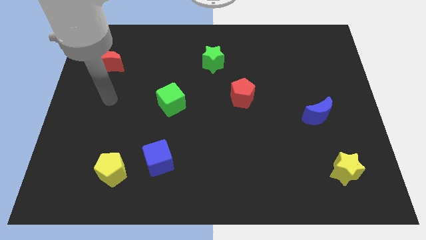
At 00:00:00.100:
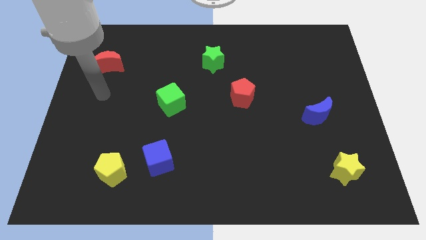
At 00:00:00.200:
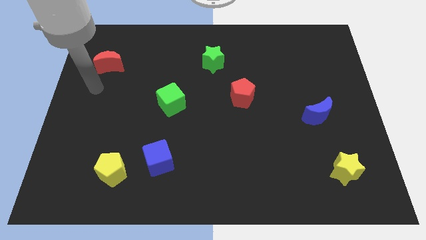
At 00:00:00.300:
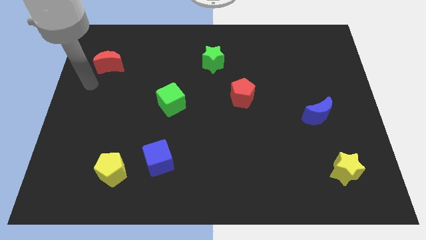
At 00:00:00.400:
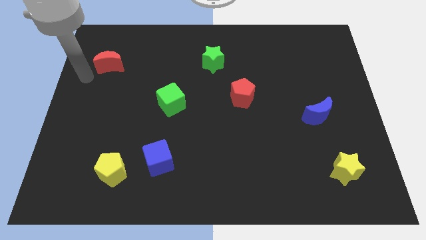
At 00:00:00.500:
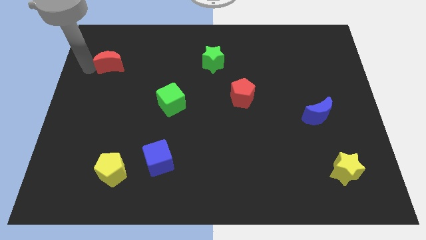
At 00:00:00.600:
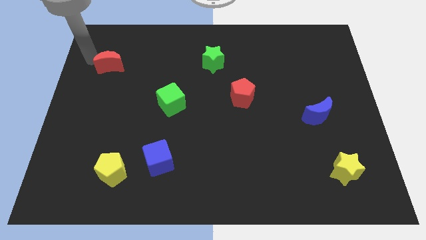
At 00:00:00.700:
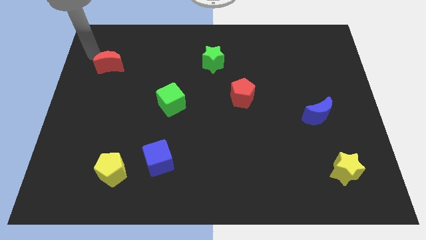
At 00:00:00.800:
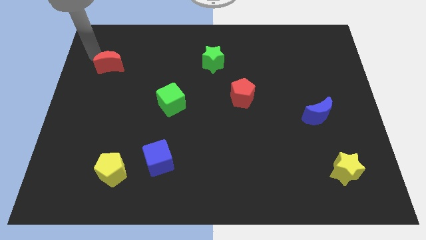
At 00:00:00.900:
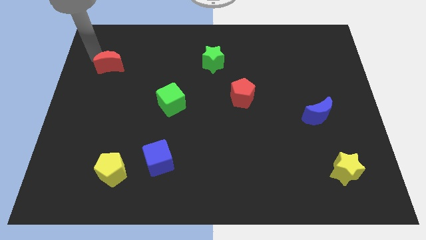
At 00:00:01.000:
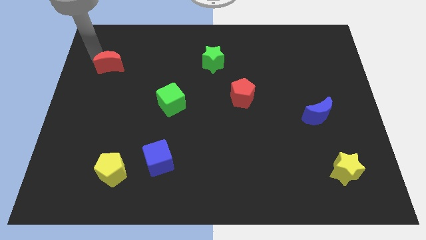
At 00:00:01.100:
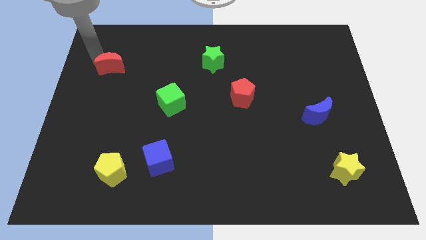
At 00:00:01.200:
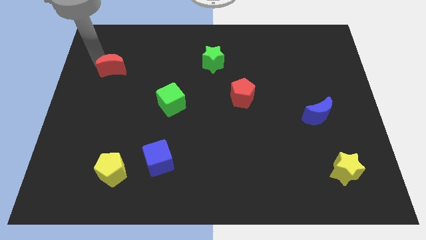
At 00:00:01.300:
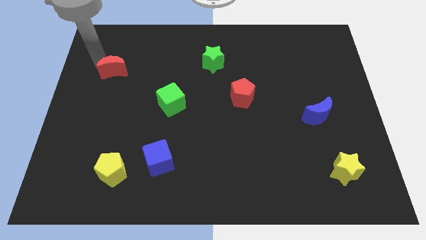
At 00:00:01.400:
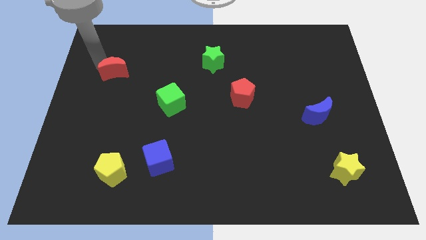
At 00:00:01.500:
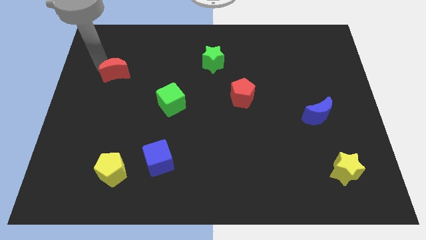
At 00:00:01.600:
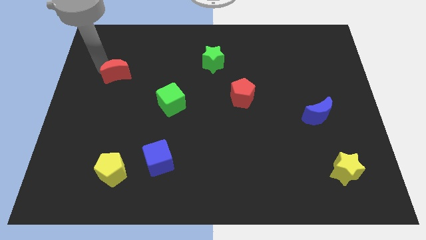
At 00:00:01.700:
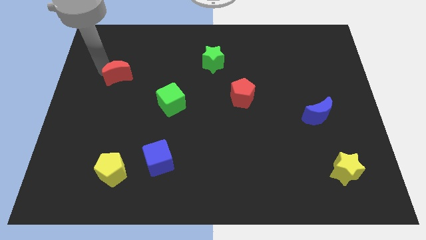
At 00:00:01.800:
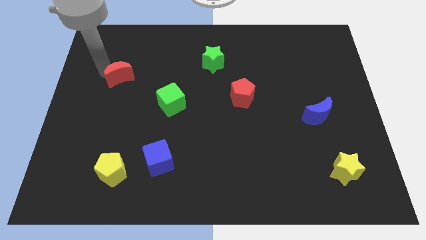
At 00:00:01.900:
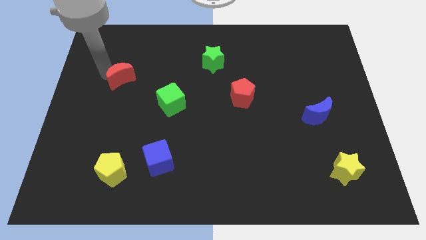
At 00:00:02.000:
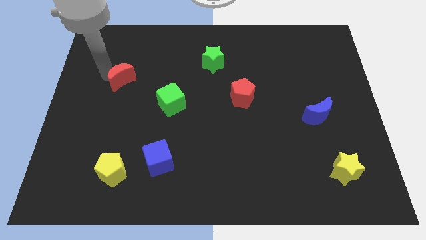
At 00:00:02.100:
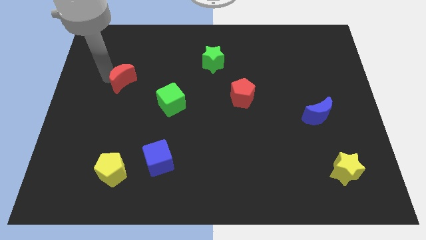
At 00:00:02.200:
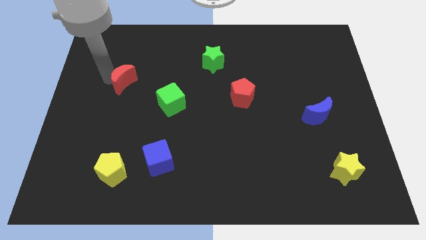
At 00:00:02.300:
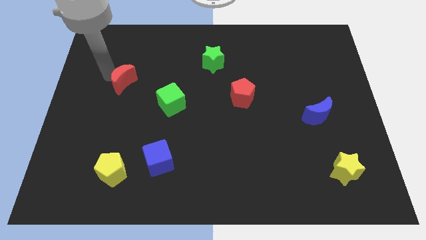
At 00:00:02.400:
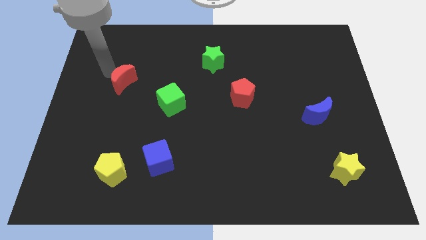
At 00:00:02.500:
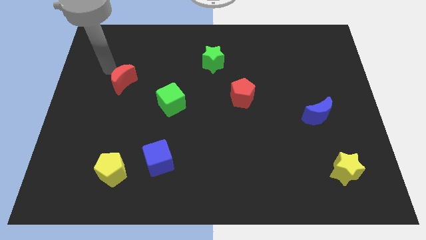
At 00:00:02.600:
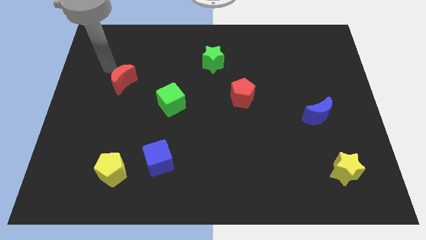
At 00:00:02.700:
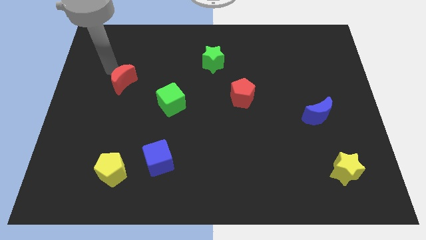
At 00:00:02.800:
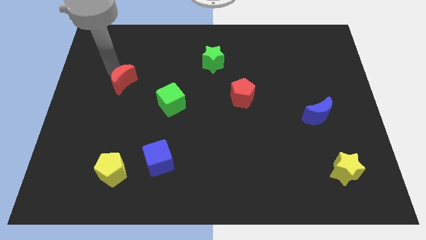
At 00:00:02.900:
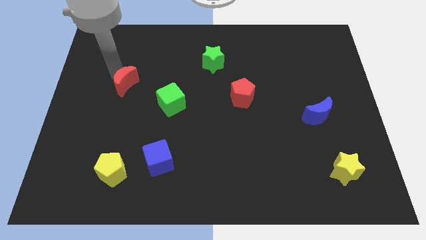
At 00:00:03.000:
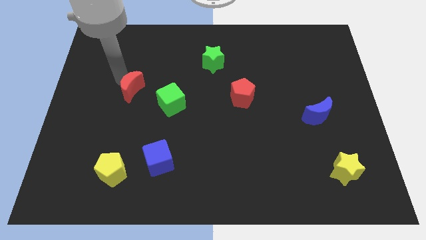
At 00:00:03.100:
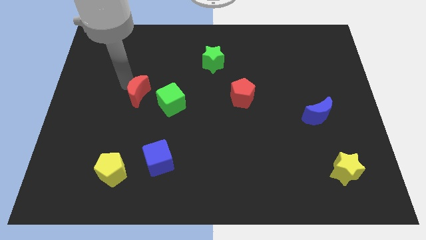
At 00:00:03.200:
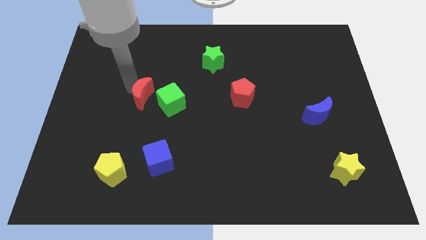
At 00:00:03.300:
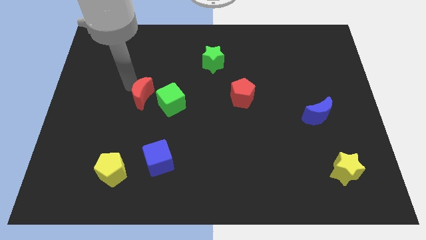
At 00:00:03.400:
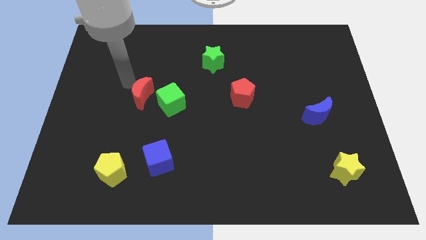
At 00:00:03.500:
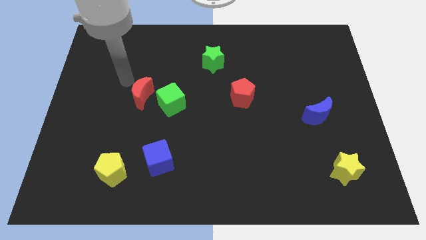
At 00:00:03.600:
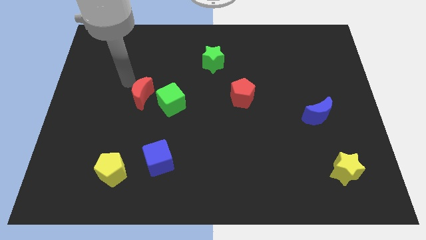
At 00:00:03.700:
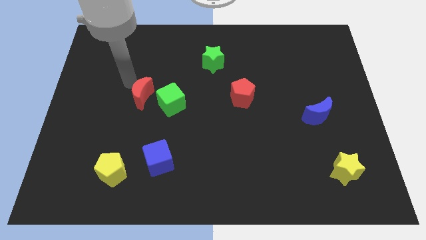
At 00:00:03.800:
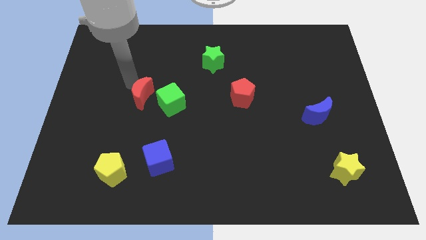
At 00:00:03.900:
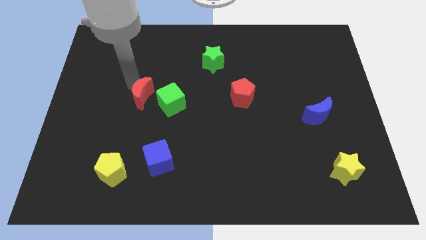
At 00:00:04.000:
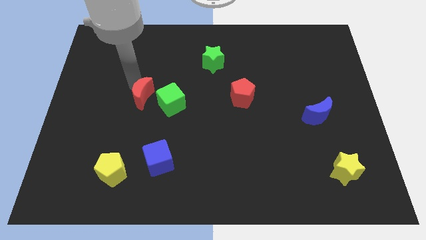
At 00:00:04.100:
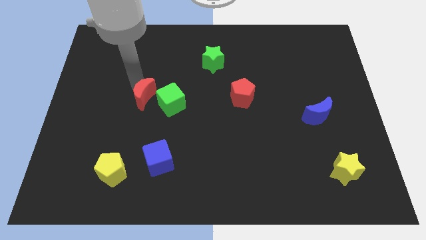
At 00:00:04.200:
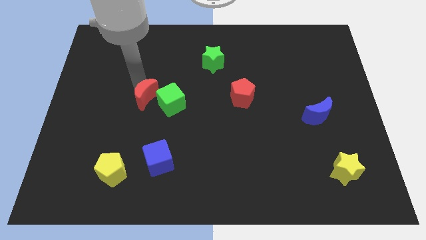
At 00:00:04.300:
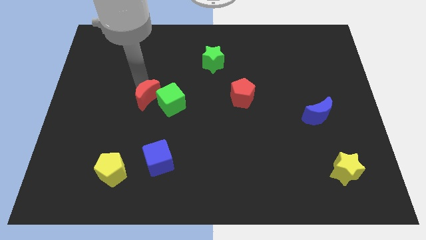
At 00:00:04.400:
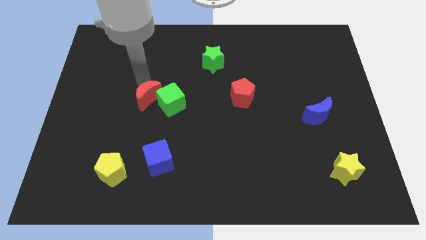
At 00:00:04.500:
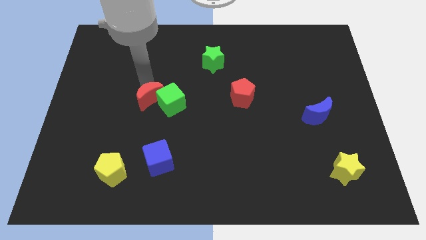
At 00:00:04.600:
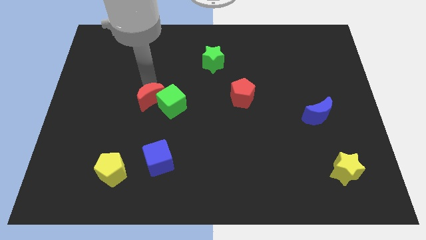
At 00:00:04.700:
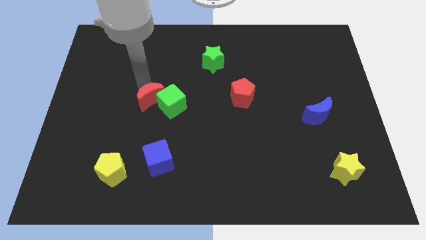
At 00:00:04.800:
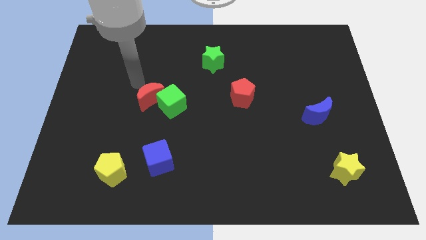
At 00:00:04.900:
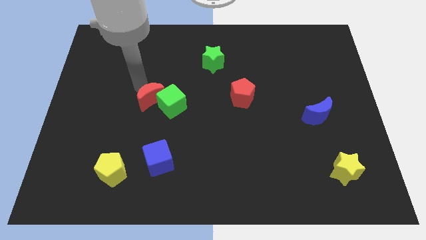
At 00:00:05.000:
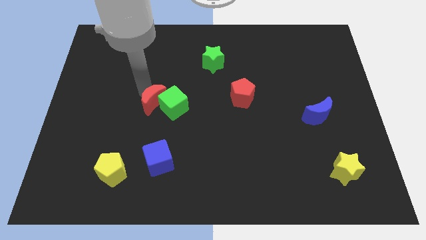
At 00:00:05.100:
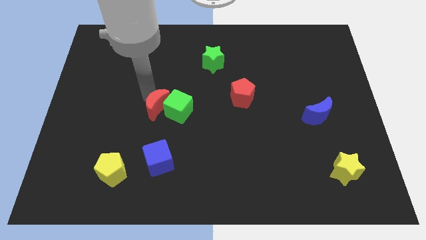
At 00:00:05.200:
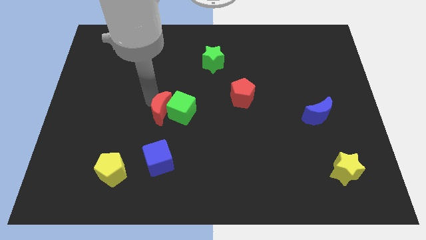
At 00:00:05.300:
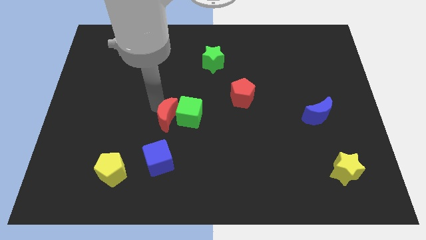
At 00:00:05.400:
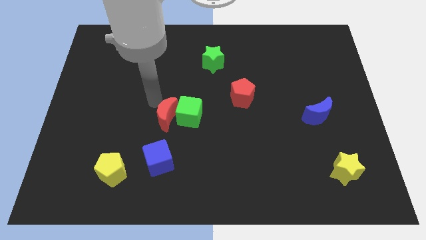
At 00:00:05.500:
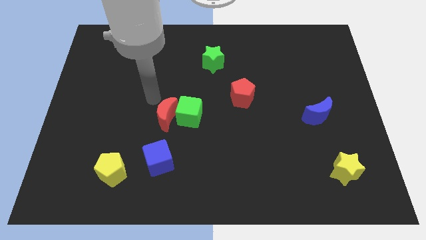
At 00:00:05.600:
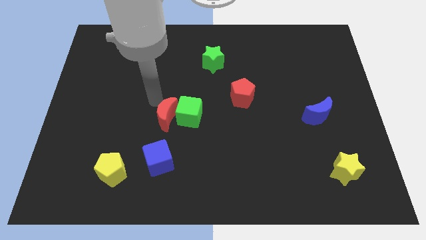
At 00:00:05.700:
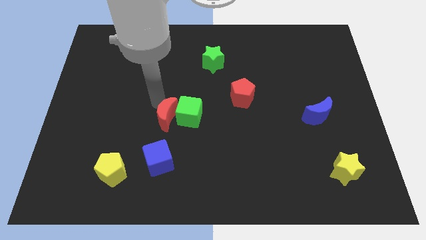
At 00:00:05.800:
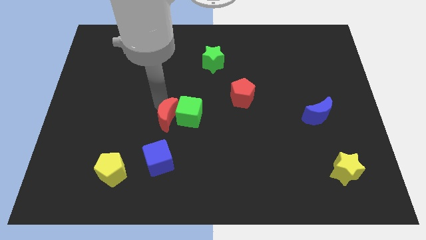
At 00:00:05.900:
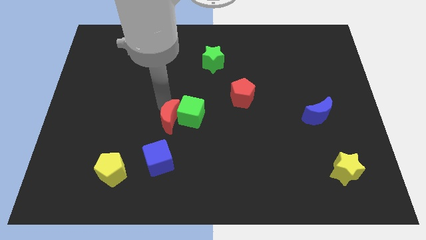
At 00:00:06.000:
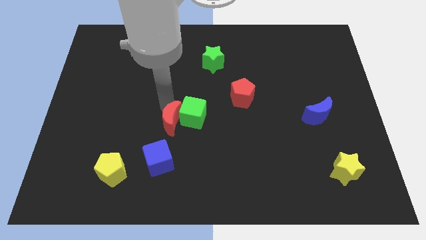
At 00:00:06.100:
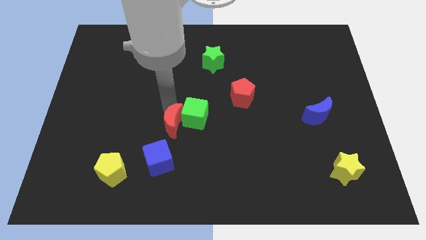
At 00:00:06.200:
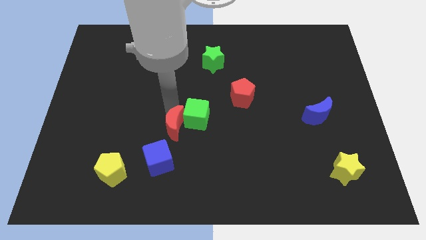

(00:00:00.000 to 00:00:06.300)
put the red moon to the top right side of the blue cube
